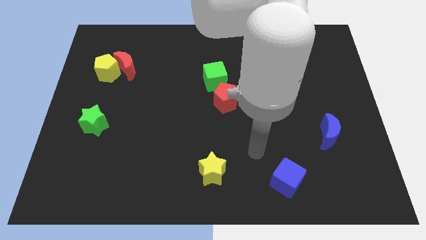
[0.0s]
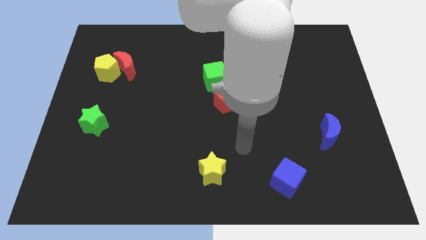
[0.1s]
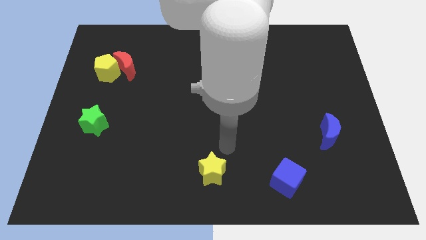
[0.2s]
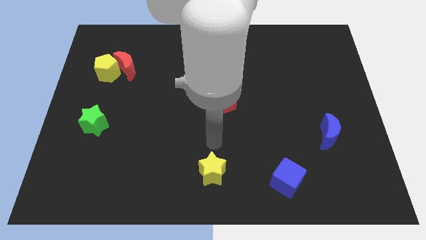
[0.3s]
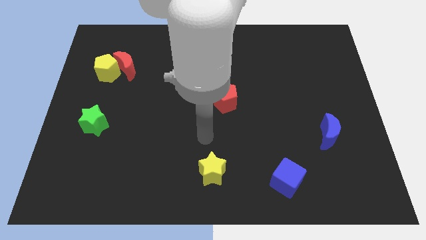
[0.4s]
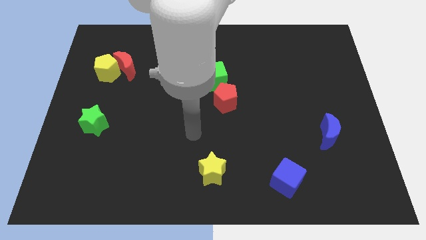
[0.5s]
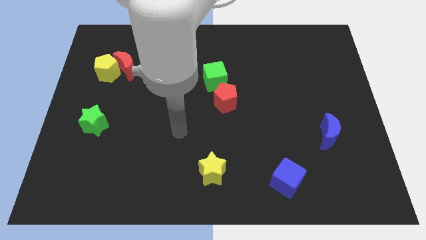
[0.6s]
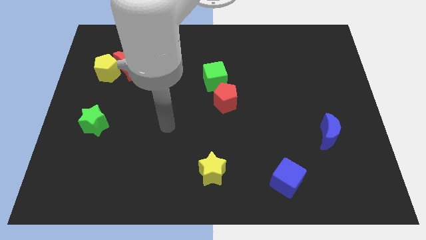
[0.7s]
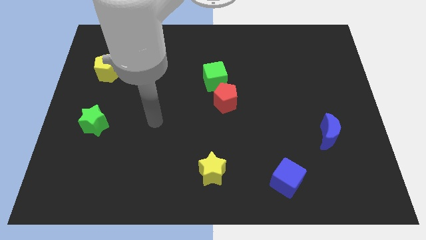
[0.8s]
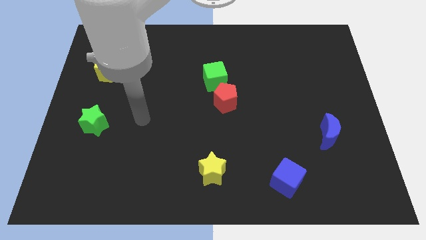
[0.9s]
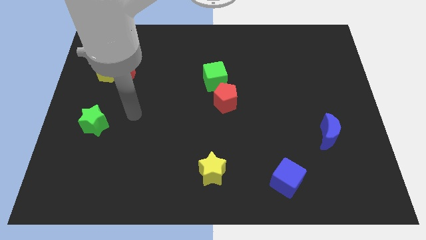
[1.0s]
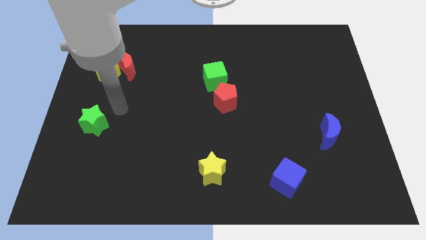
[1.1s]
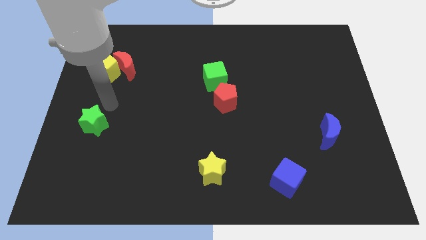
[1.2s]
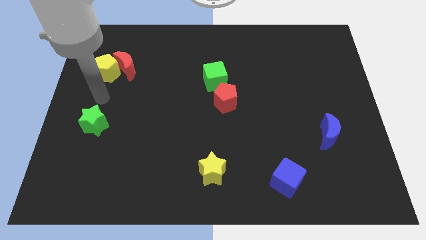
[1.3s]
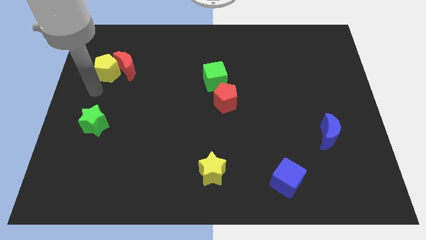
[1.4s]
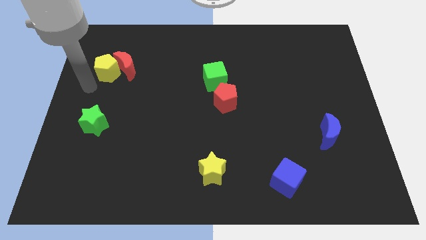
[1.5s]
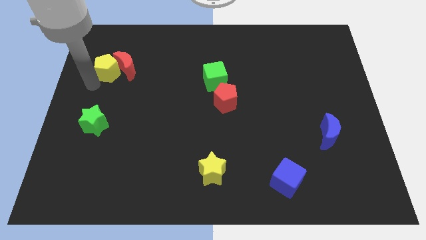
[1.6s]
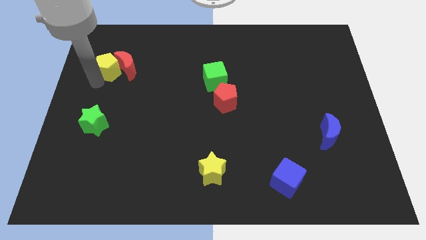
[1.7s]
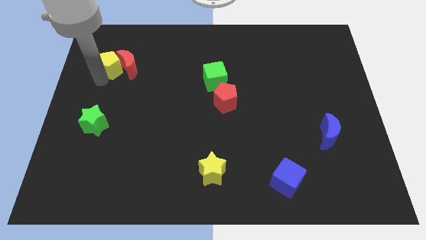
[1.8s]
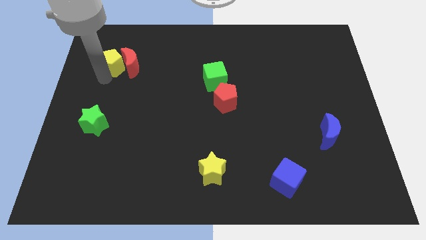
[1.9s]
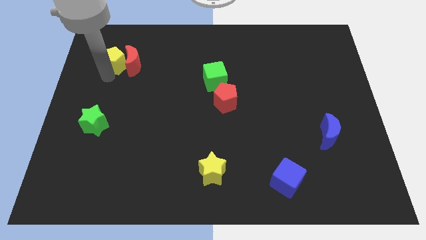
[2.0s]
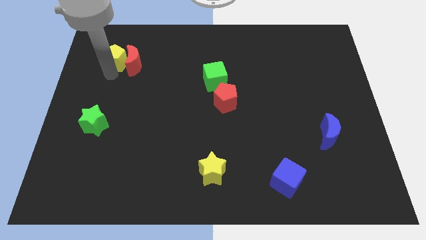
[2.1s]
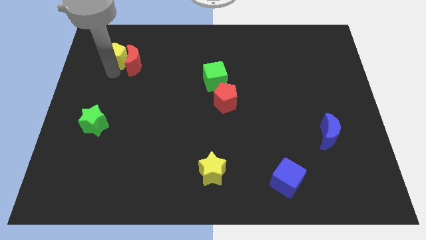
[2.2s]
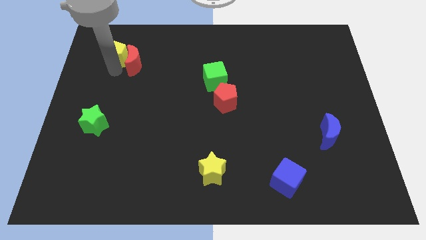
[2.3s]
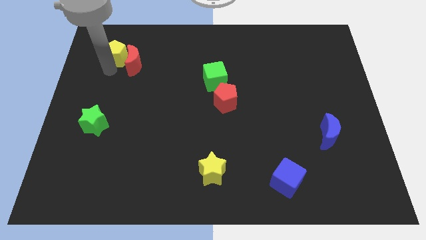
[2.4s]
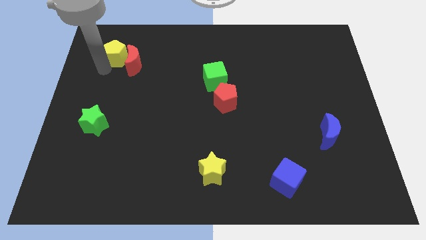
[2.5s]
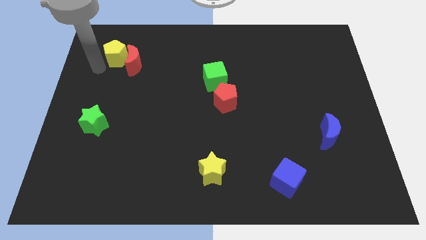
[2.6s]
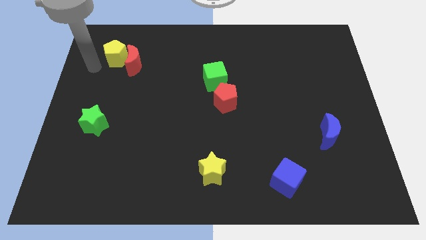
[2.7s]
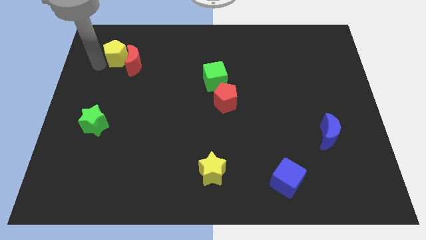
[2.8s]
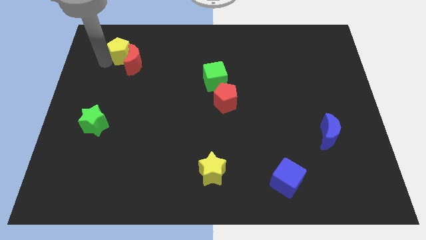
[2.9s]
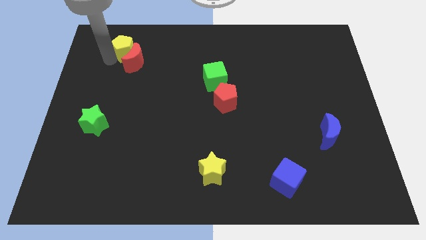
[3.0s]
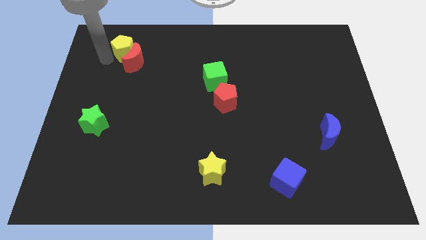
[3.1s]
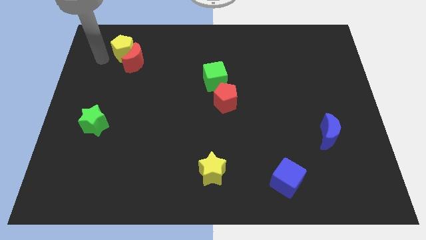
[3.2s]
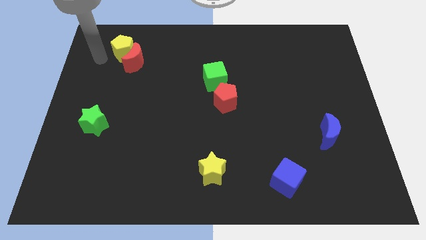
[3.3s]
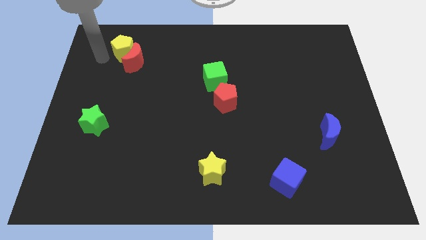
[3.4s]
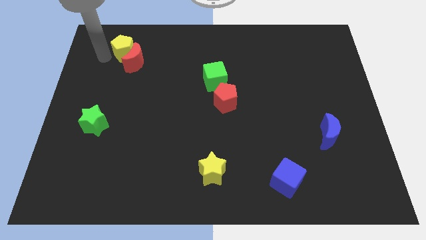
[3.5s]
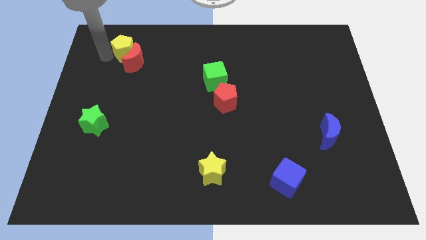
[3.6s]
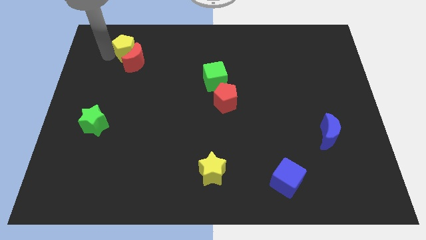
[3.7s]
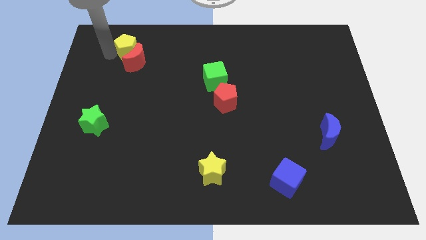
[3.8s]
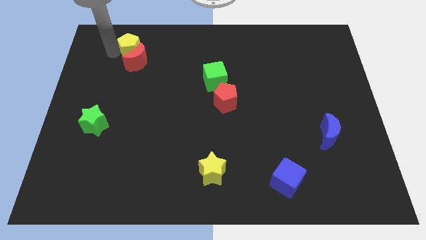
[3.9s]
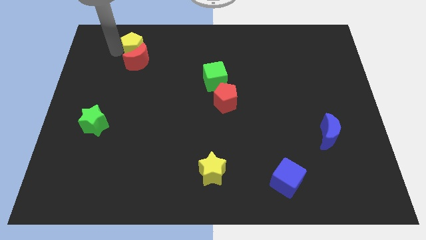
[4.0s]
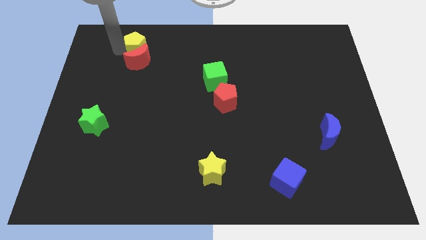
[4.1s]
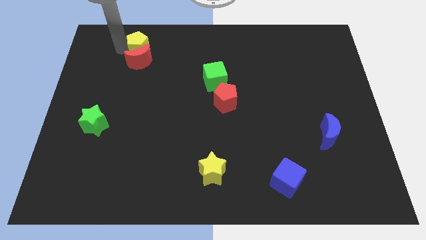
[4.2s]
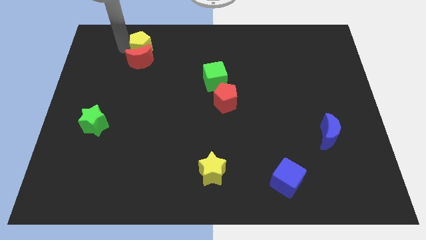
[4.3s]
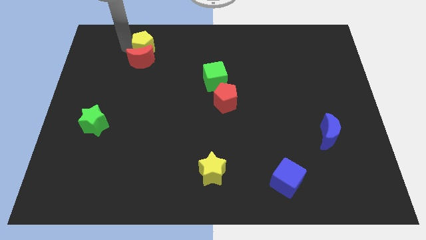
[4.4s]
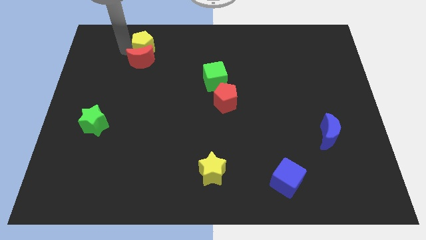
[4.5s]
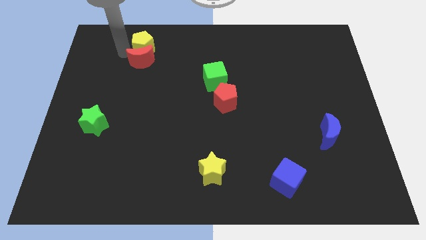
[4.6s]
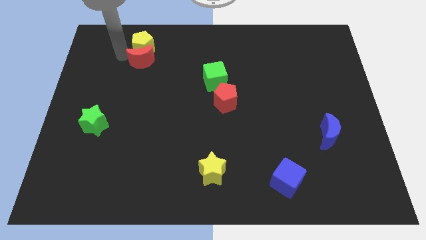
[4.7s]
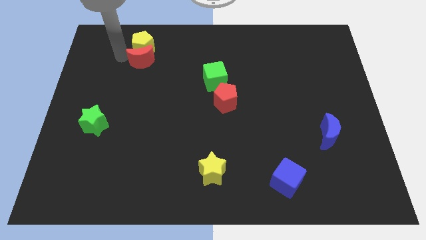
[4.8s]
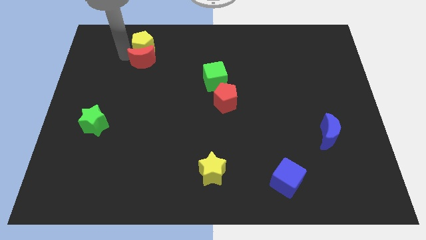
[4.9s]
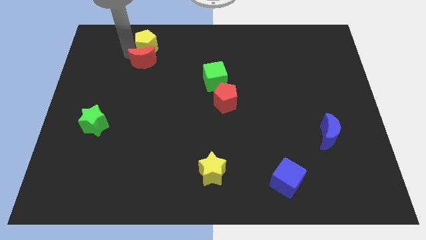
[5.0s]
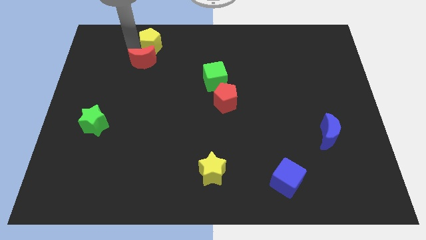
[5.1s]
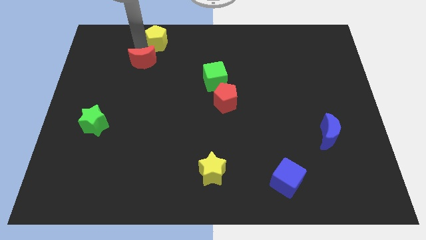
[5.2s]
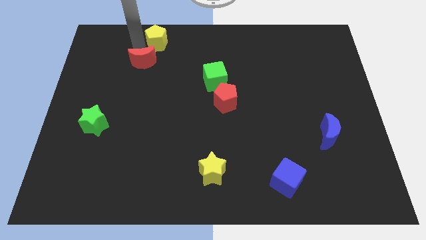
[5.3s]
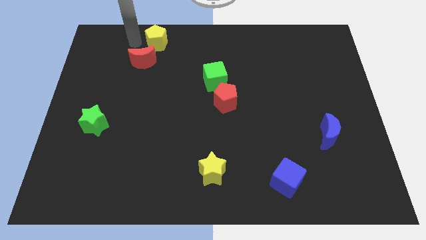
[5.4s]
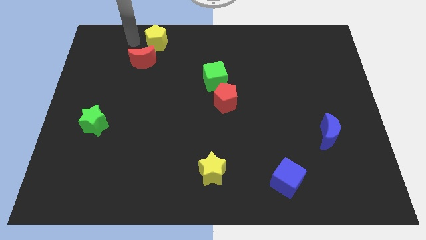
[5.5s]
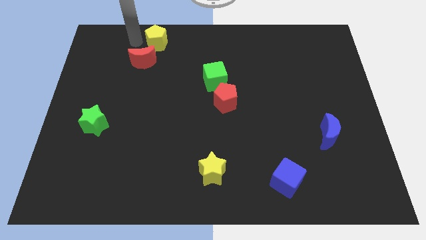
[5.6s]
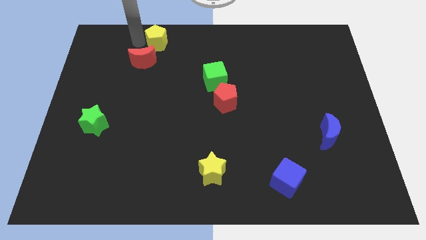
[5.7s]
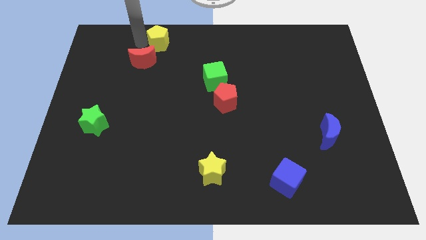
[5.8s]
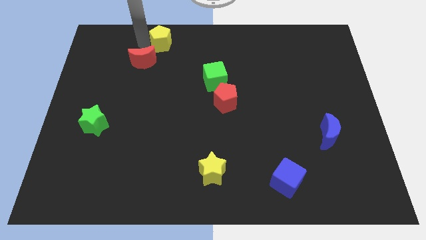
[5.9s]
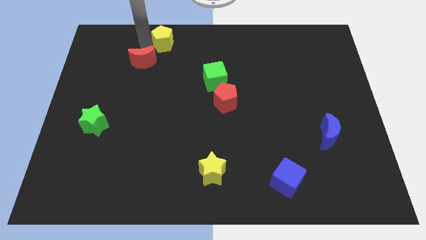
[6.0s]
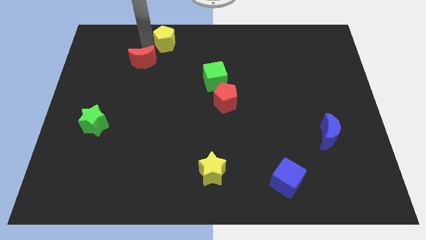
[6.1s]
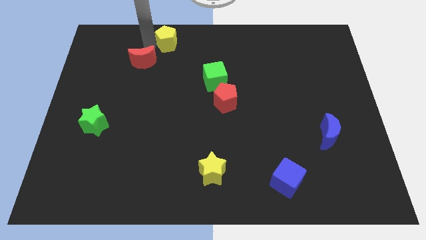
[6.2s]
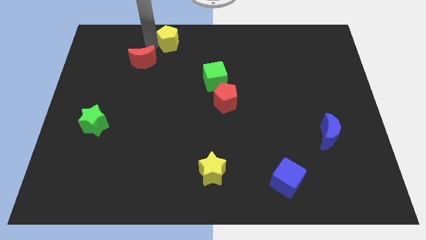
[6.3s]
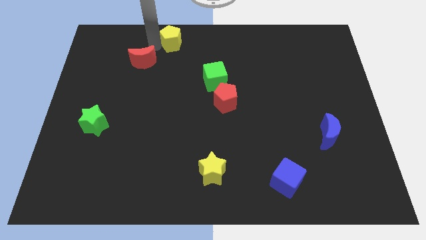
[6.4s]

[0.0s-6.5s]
put the yellow pentagon to the towards your base
